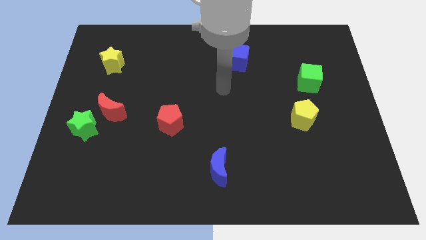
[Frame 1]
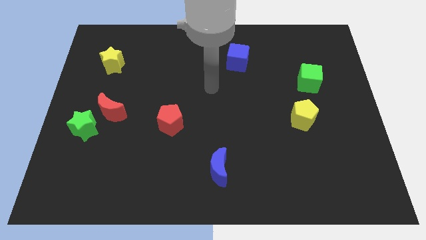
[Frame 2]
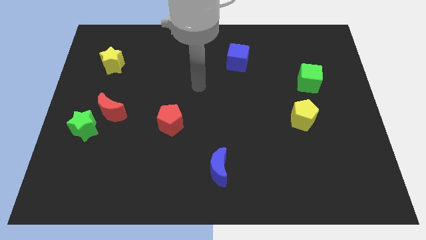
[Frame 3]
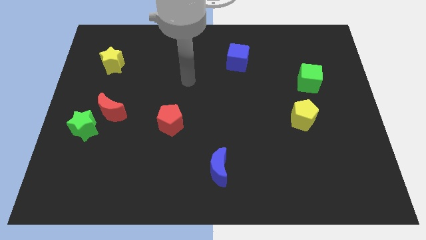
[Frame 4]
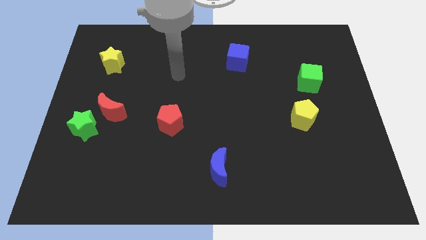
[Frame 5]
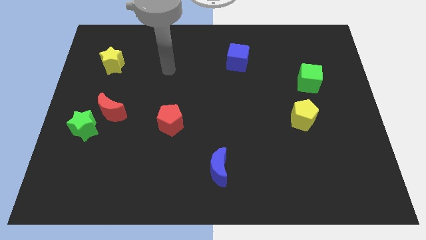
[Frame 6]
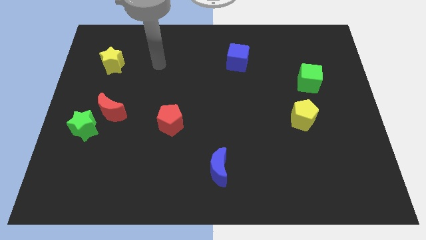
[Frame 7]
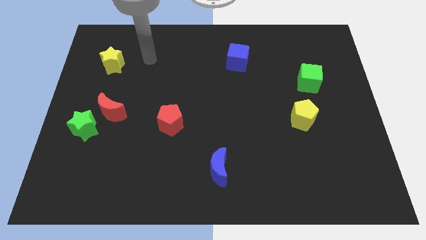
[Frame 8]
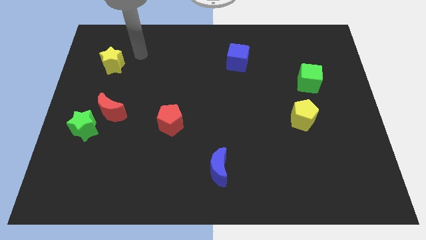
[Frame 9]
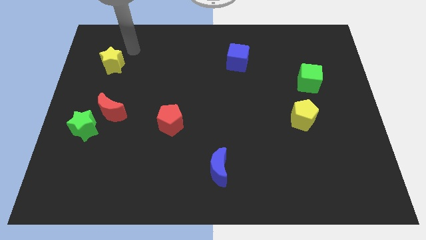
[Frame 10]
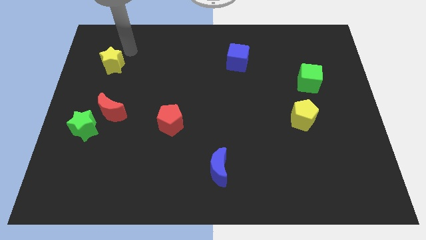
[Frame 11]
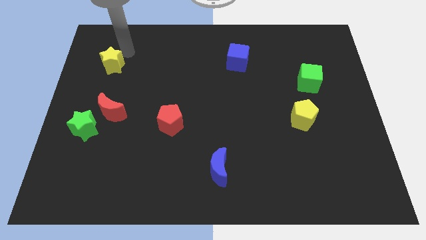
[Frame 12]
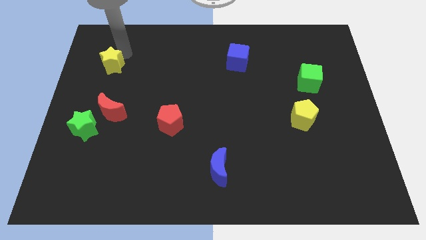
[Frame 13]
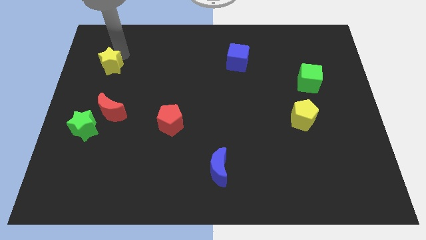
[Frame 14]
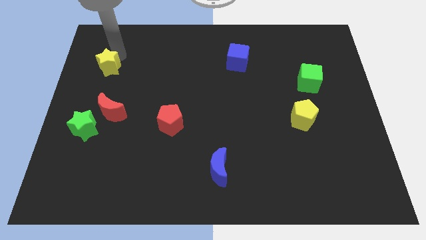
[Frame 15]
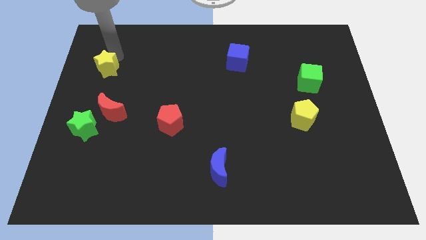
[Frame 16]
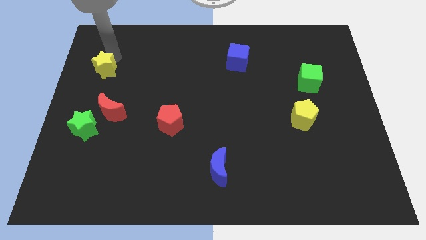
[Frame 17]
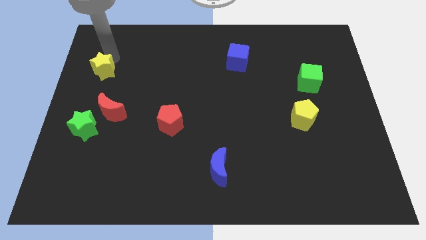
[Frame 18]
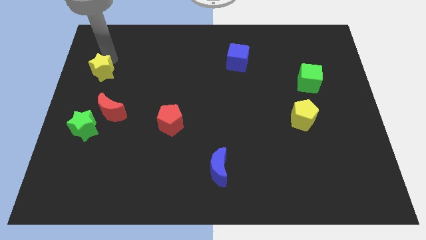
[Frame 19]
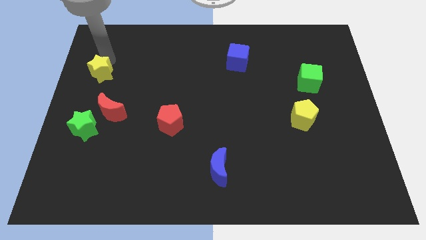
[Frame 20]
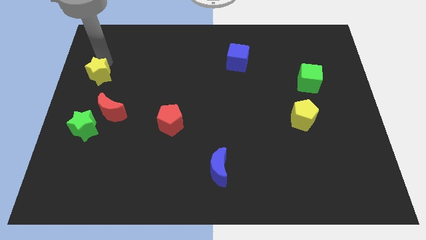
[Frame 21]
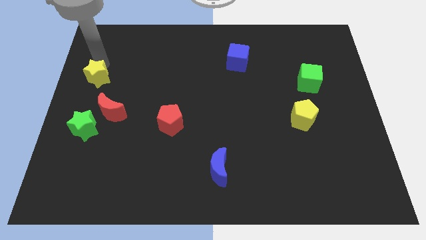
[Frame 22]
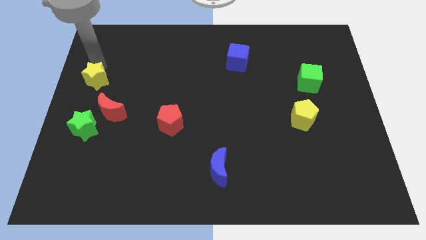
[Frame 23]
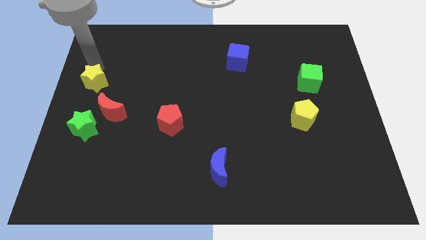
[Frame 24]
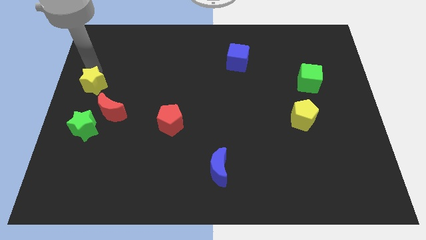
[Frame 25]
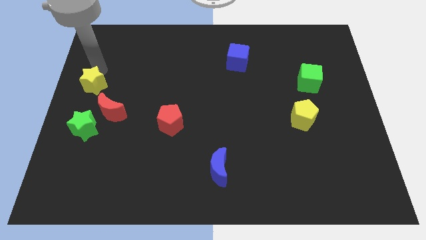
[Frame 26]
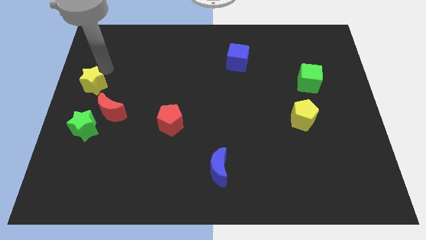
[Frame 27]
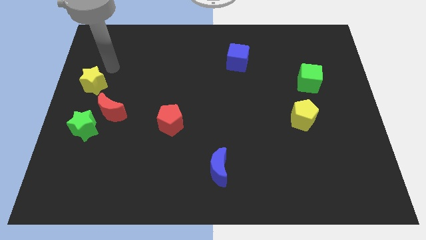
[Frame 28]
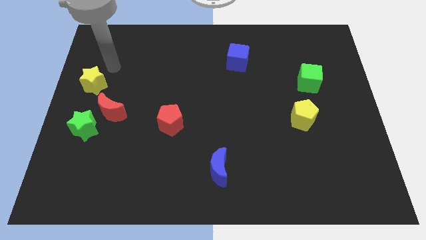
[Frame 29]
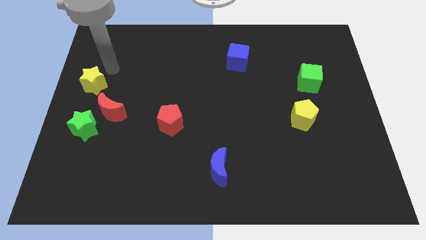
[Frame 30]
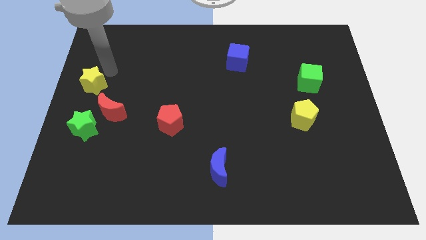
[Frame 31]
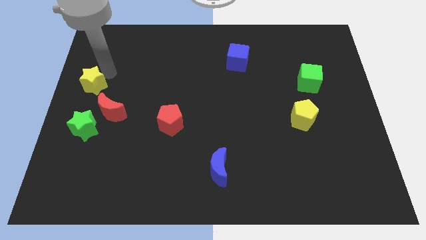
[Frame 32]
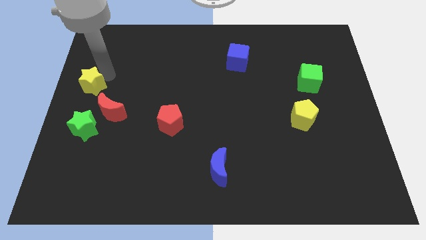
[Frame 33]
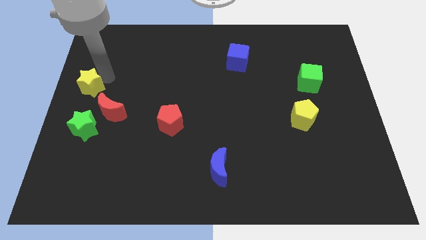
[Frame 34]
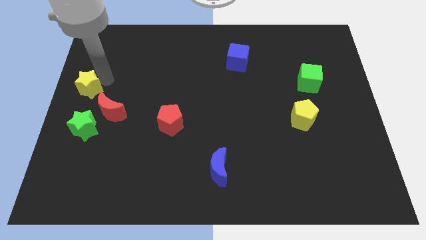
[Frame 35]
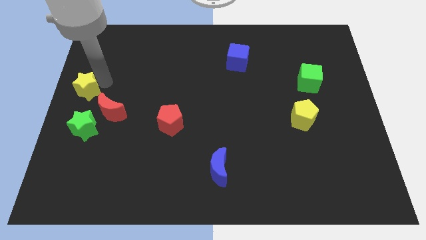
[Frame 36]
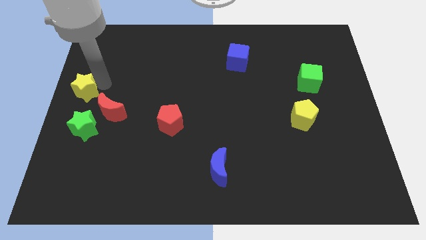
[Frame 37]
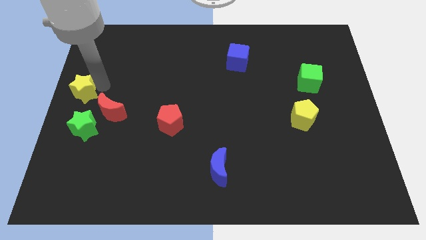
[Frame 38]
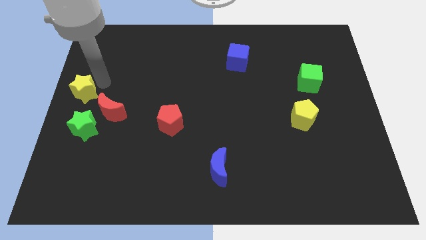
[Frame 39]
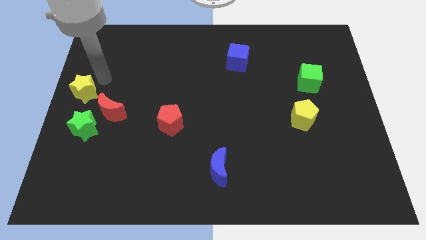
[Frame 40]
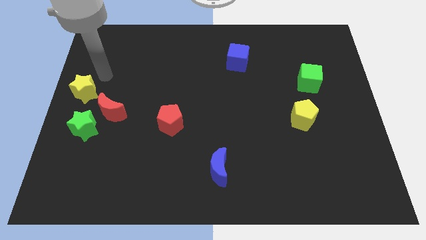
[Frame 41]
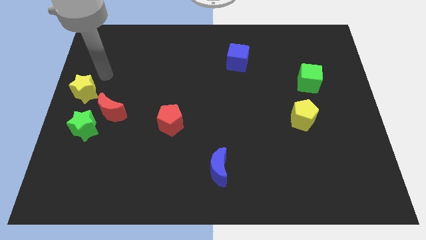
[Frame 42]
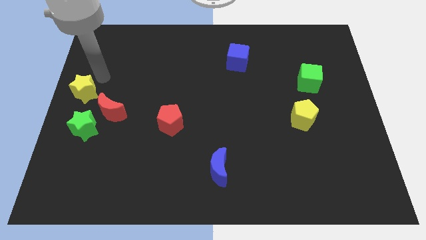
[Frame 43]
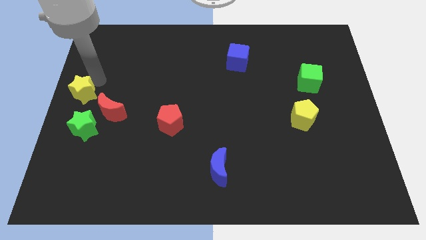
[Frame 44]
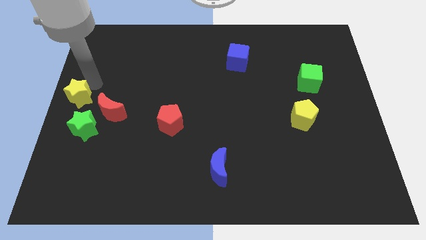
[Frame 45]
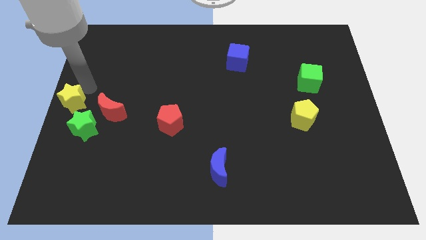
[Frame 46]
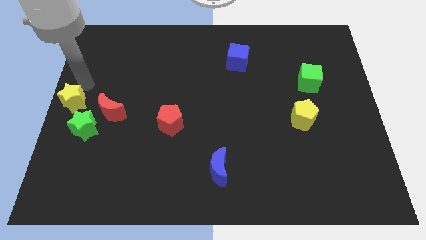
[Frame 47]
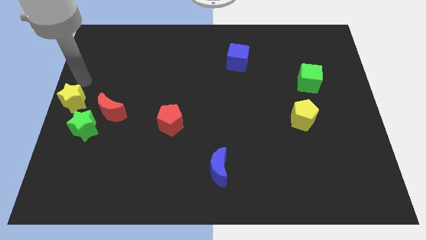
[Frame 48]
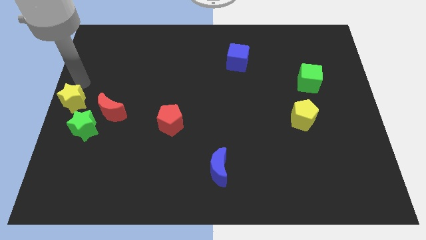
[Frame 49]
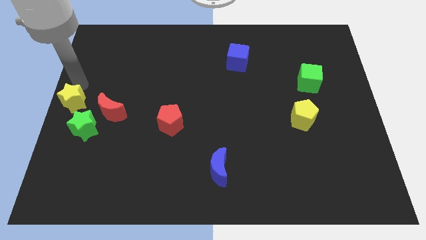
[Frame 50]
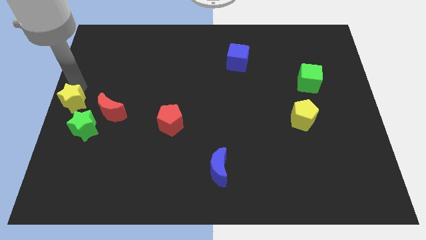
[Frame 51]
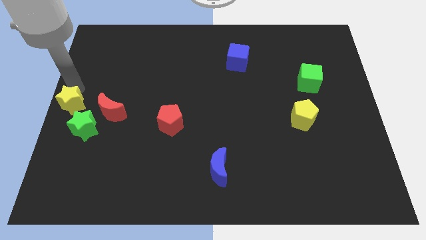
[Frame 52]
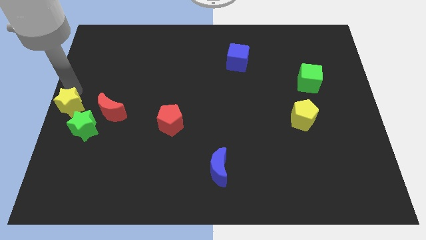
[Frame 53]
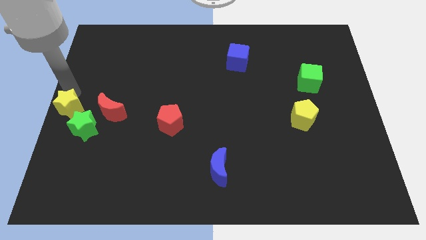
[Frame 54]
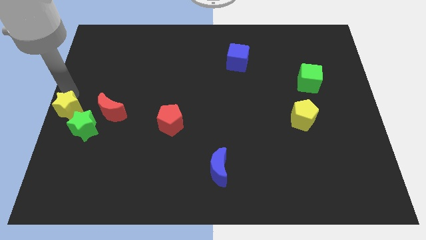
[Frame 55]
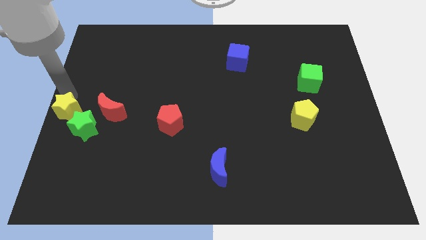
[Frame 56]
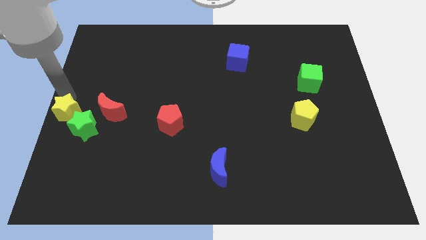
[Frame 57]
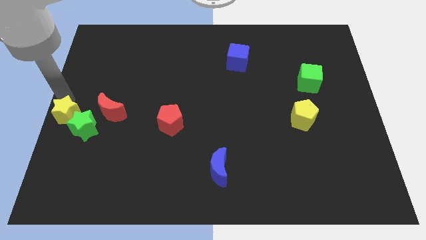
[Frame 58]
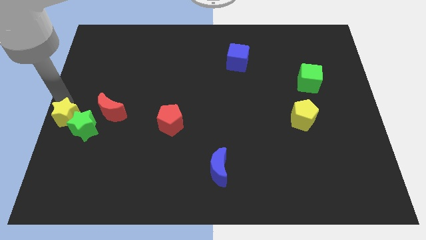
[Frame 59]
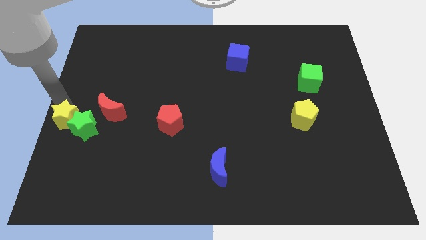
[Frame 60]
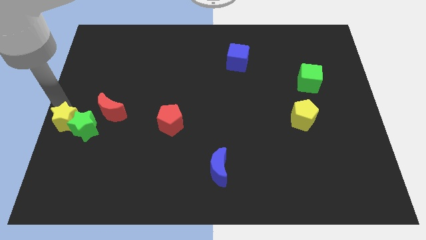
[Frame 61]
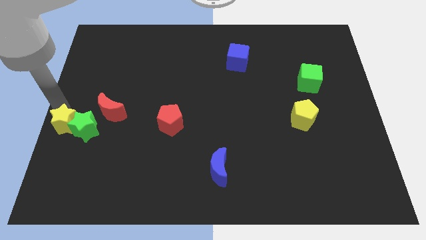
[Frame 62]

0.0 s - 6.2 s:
push the yellow star to the bottom left side of the red moon

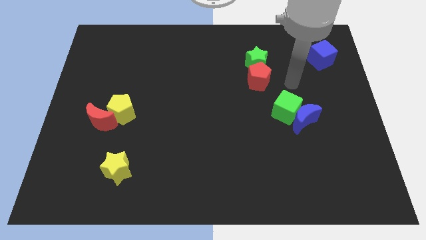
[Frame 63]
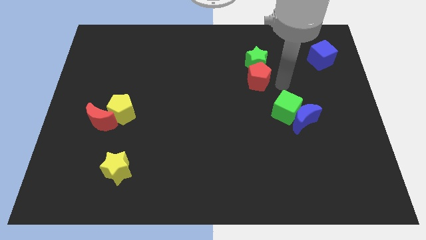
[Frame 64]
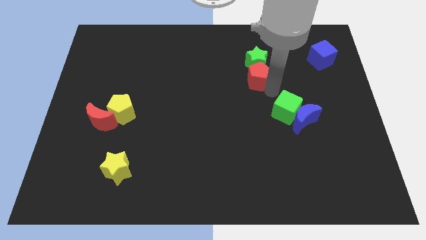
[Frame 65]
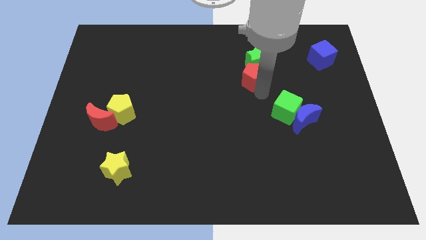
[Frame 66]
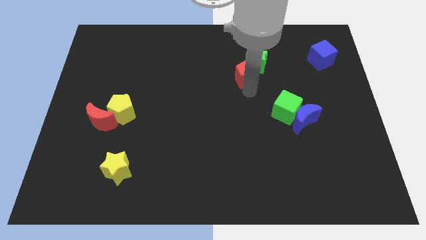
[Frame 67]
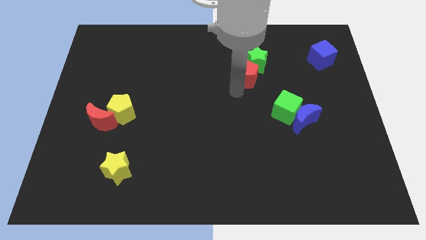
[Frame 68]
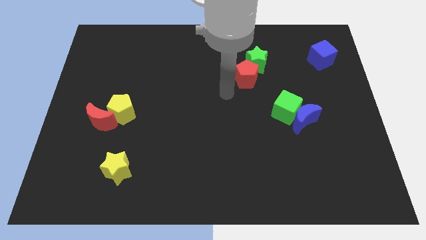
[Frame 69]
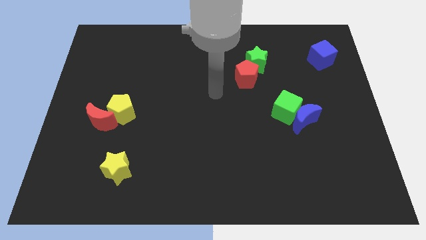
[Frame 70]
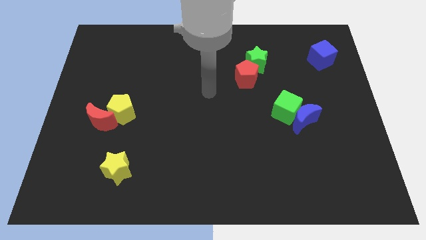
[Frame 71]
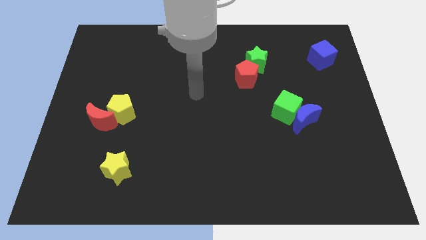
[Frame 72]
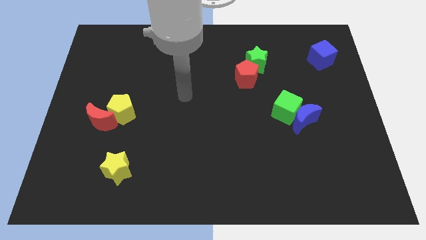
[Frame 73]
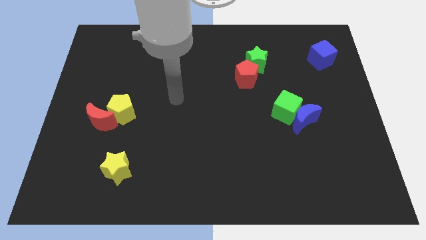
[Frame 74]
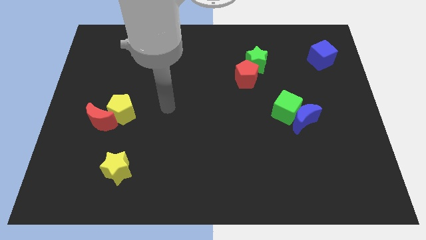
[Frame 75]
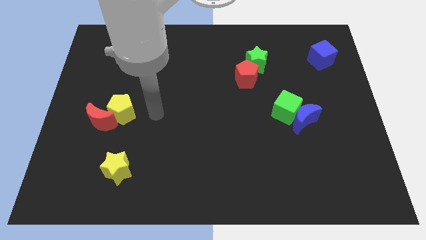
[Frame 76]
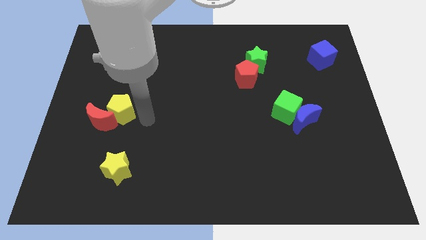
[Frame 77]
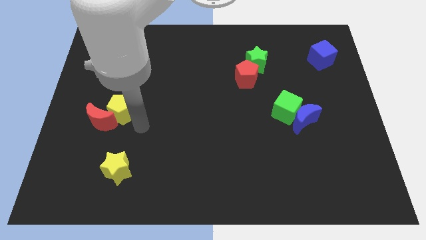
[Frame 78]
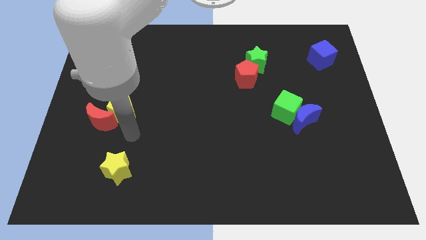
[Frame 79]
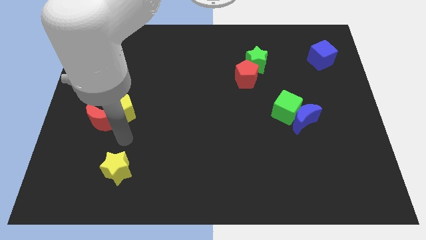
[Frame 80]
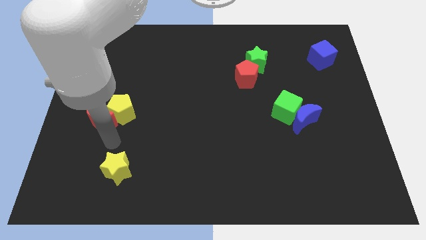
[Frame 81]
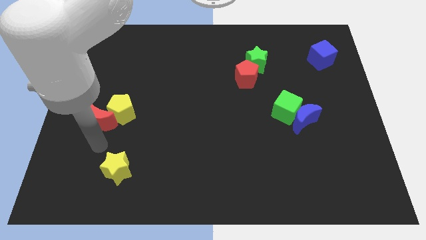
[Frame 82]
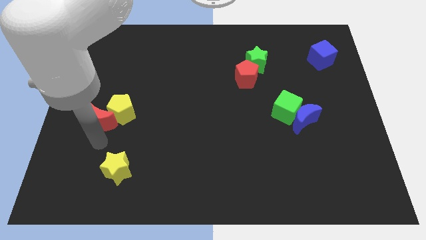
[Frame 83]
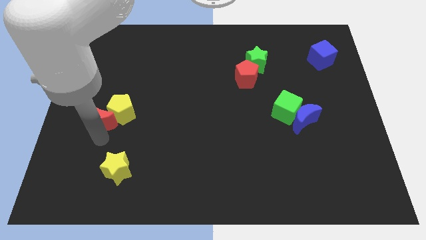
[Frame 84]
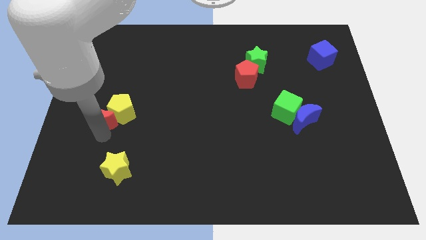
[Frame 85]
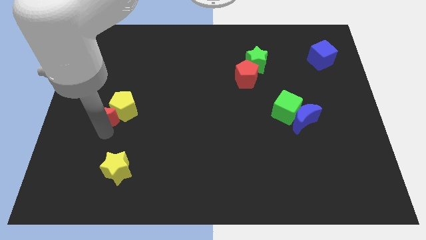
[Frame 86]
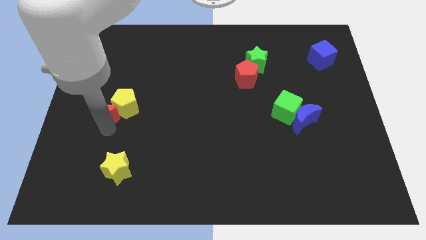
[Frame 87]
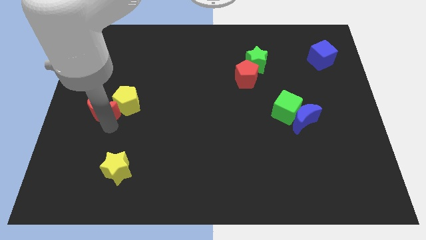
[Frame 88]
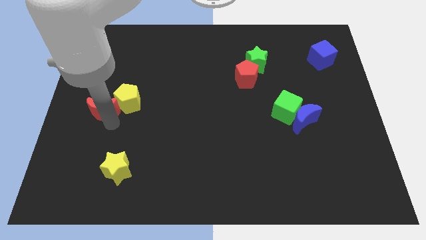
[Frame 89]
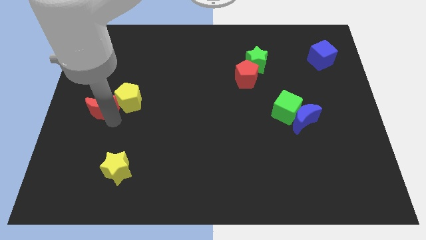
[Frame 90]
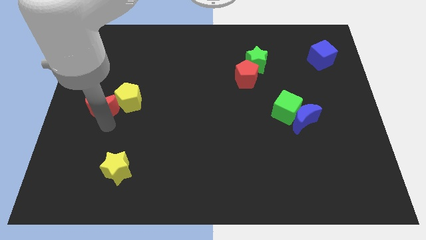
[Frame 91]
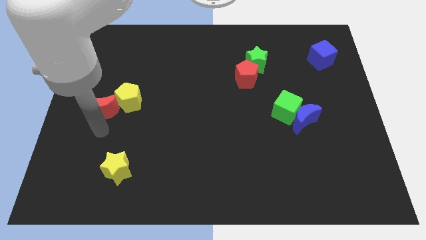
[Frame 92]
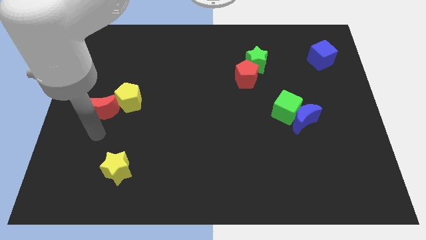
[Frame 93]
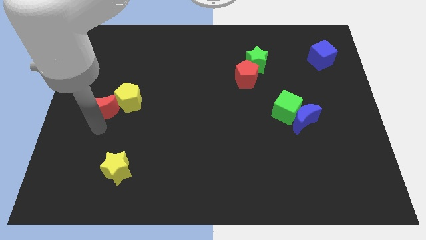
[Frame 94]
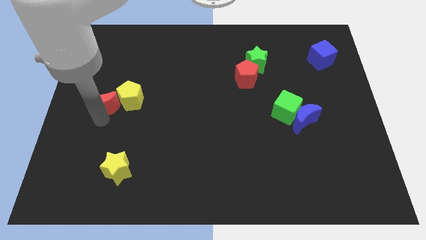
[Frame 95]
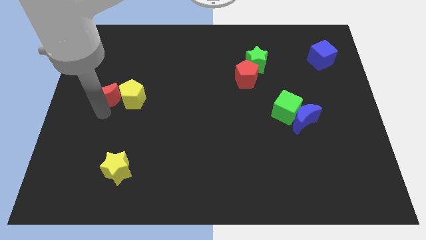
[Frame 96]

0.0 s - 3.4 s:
put the red moon to the top left of the yellow pentagon
